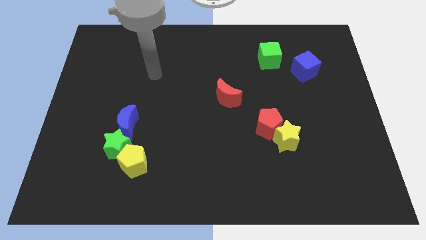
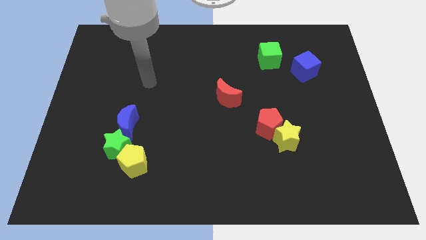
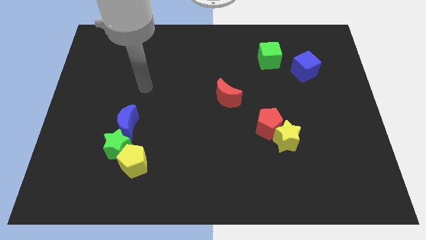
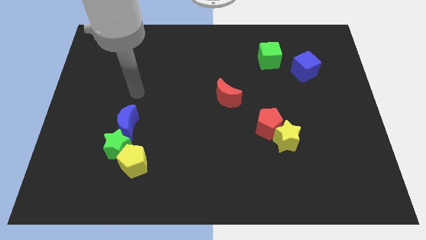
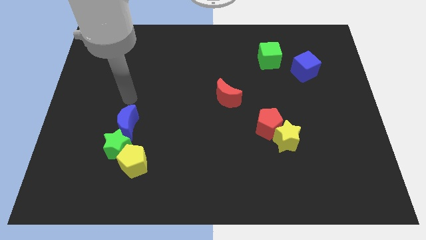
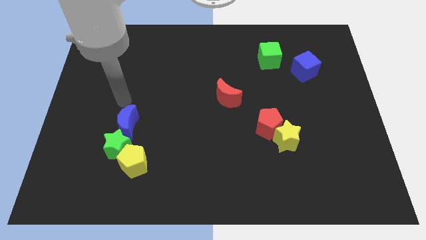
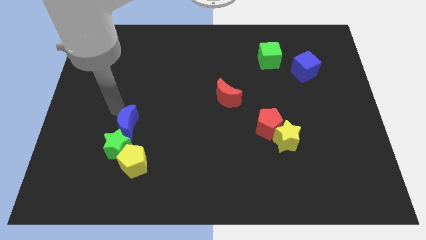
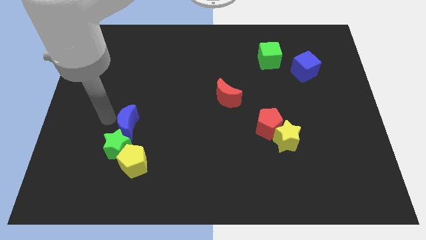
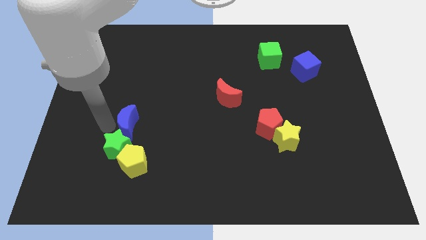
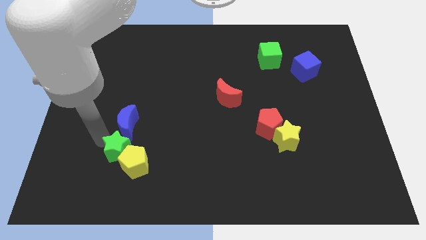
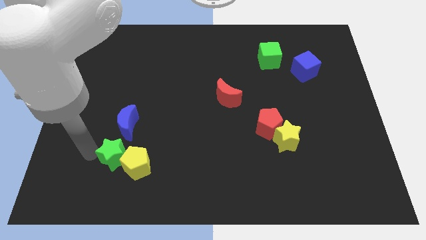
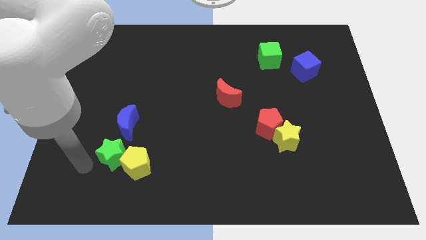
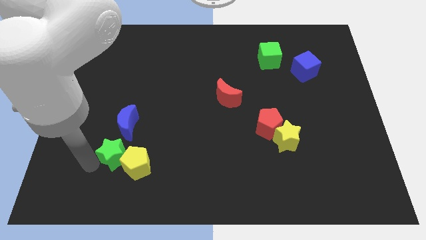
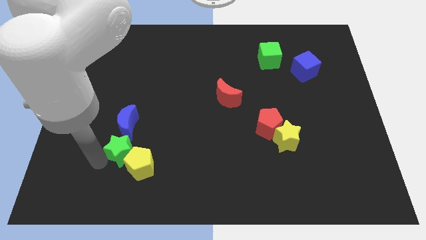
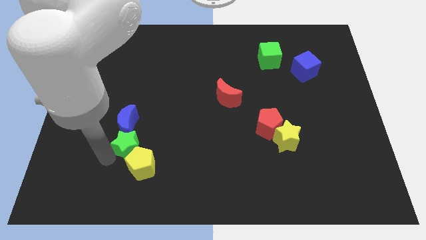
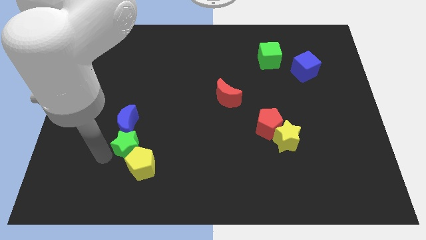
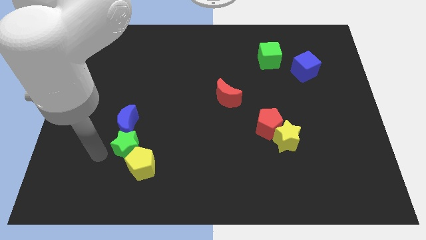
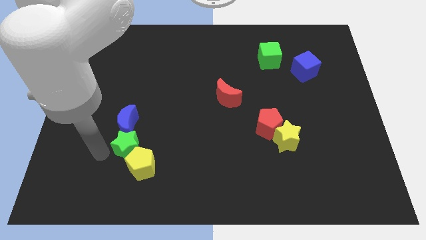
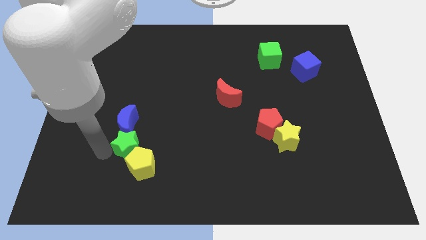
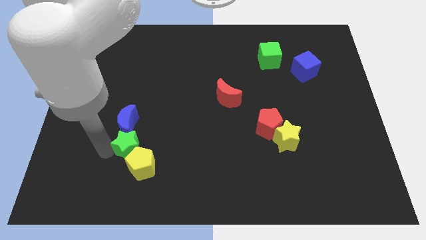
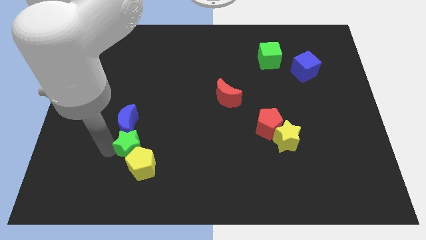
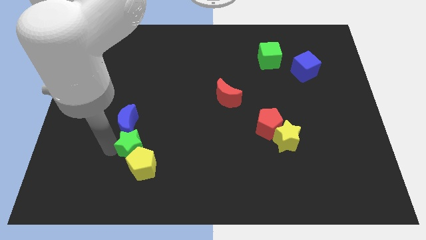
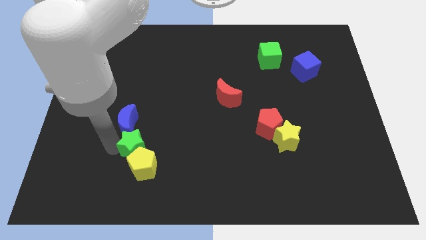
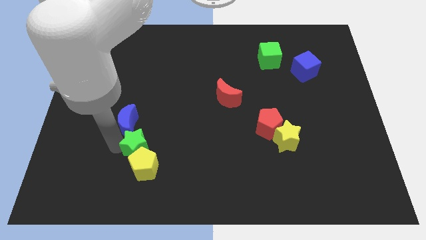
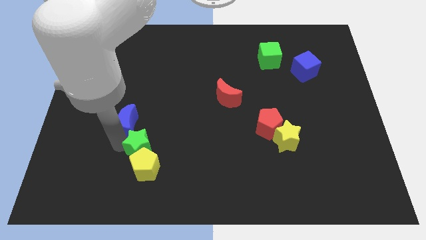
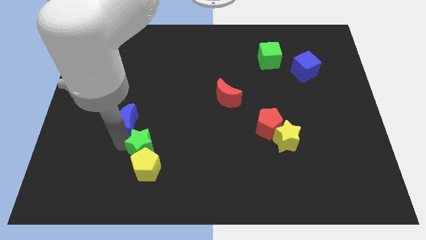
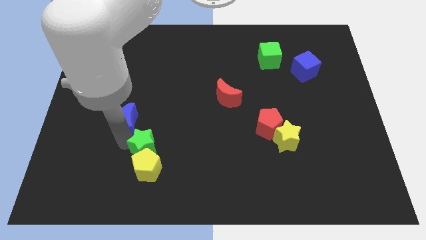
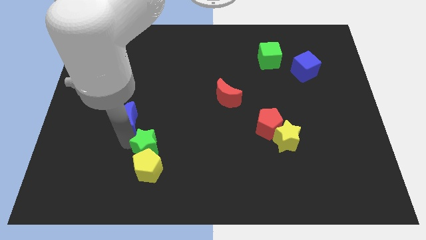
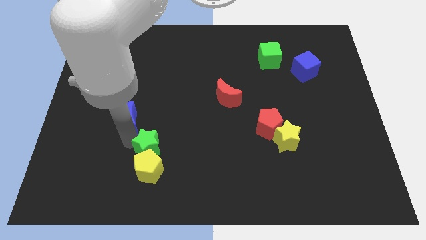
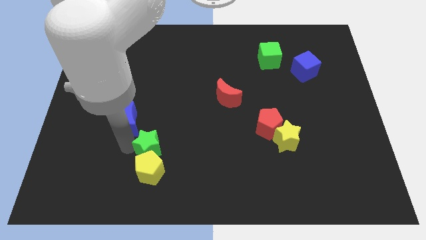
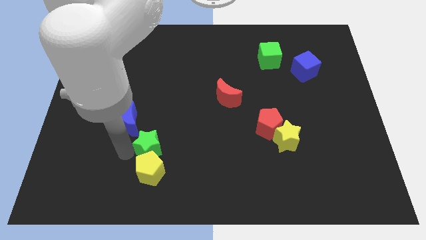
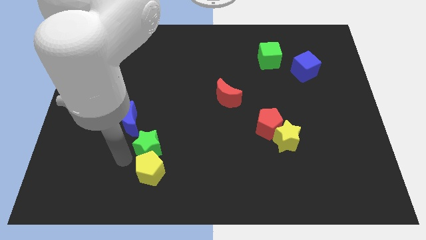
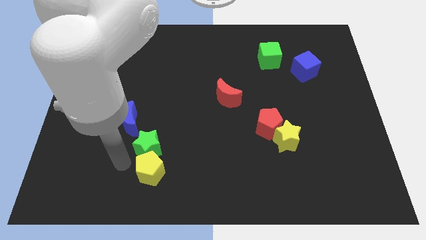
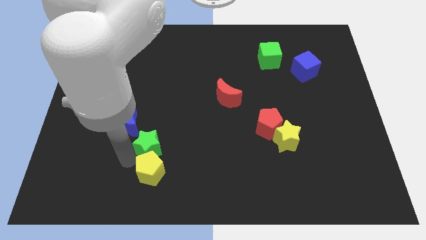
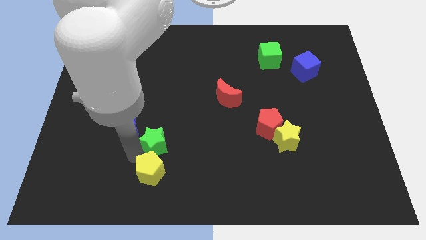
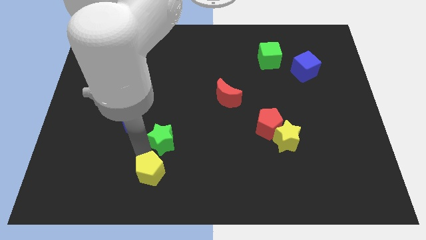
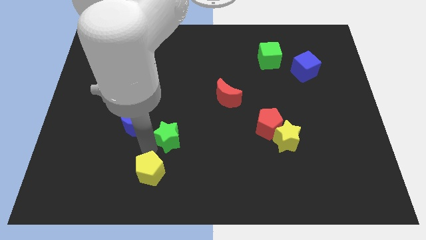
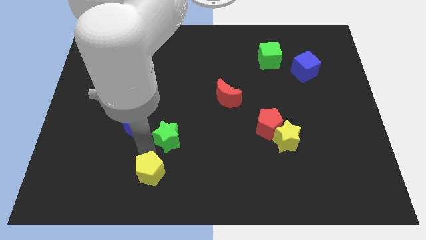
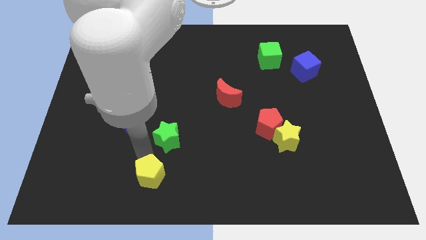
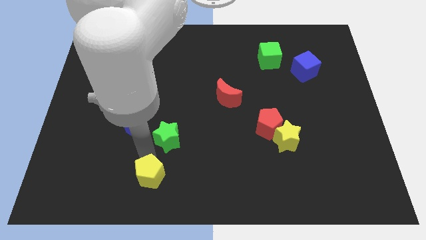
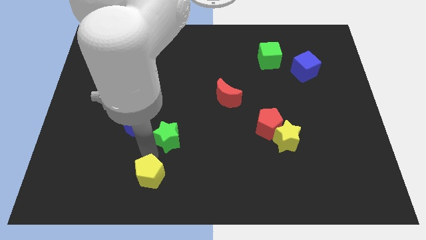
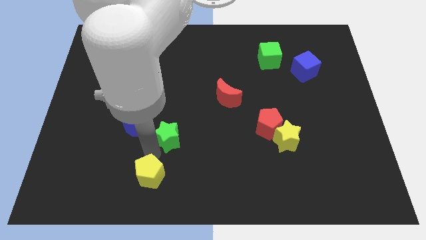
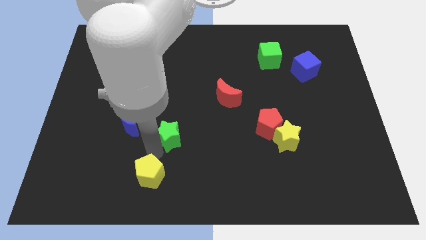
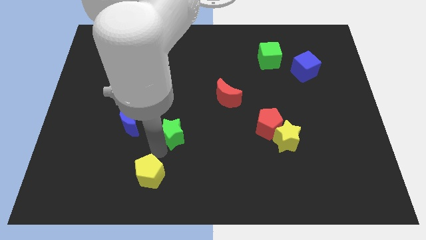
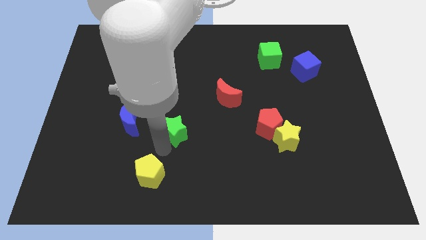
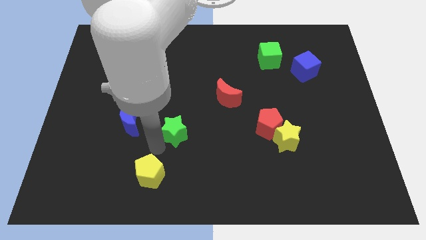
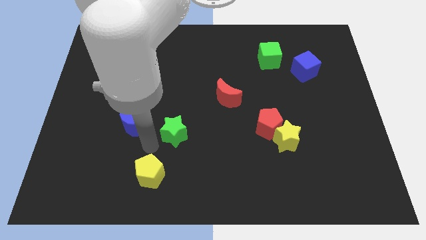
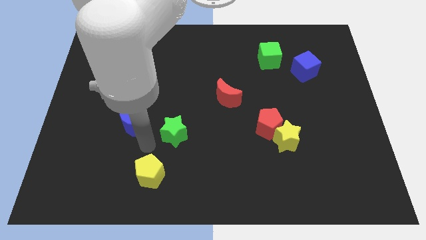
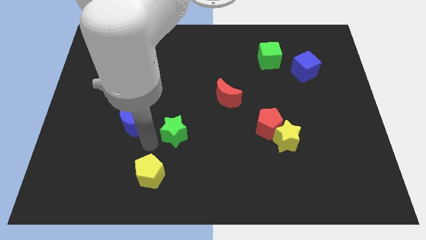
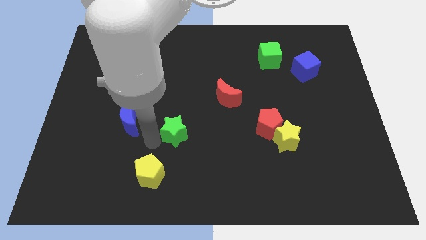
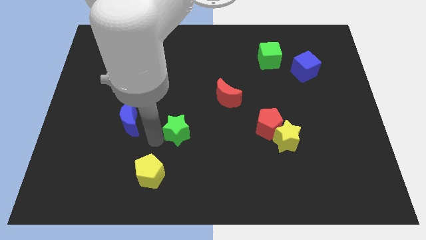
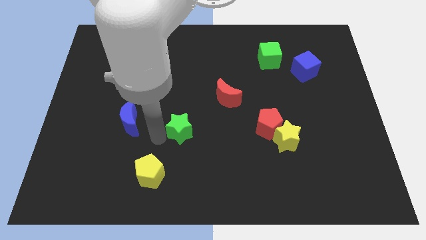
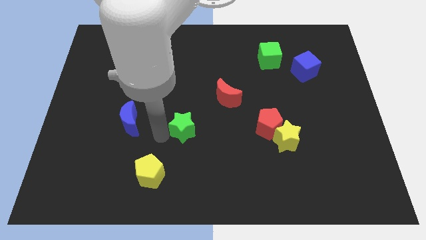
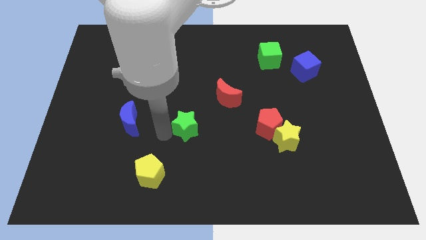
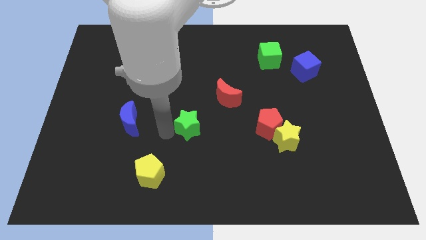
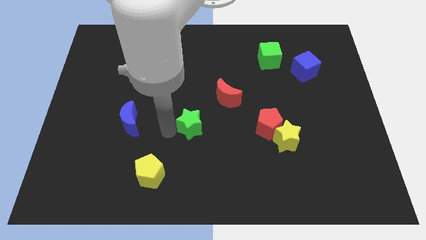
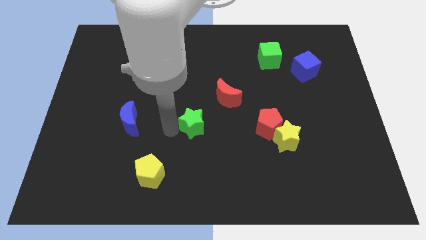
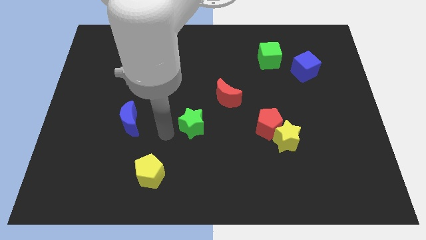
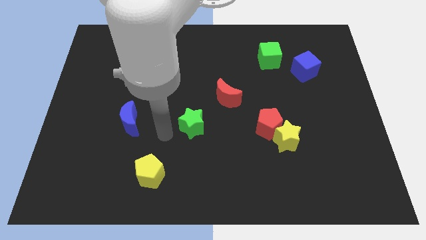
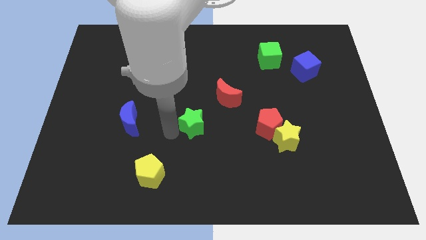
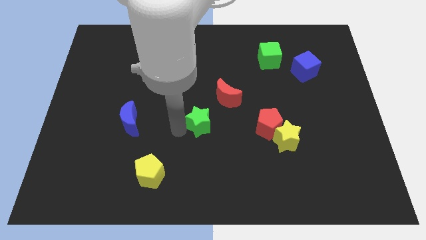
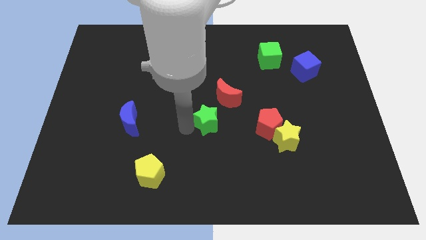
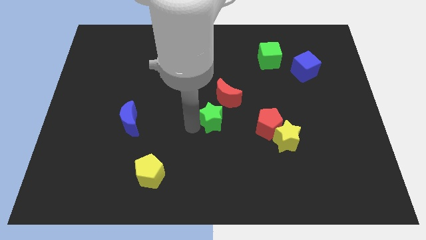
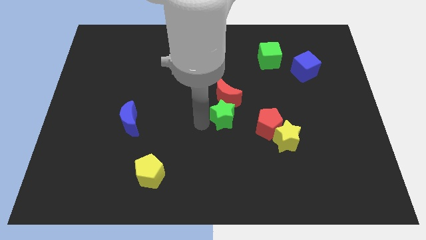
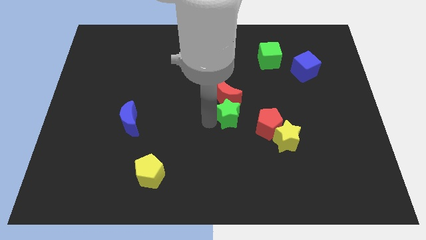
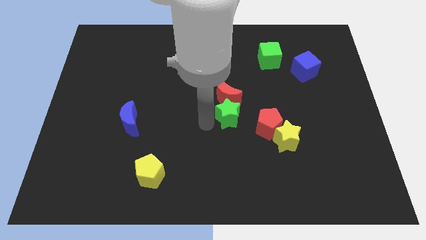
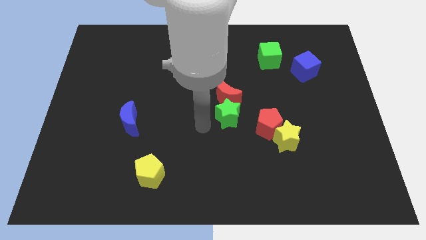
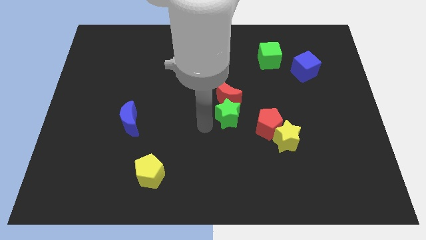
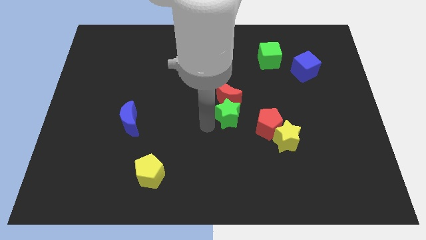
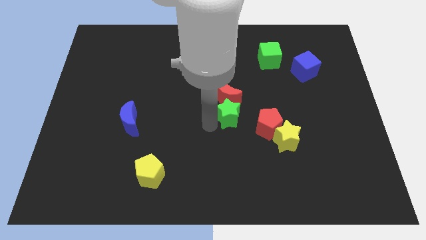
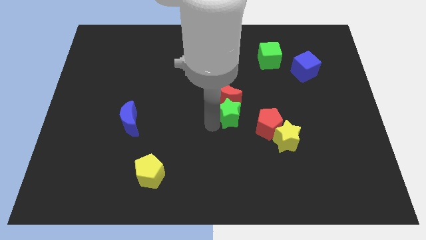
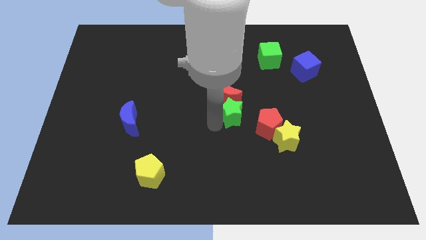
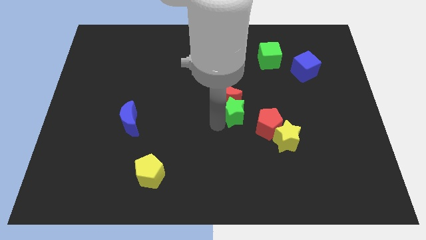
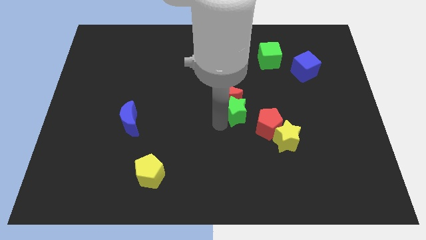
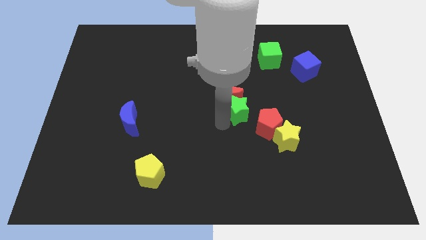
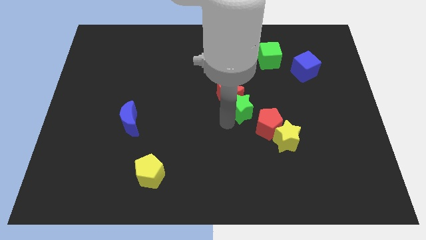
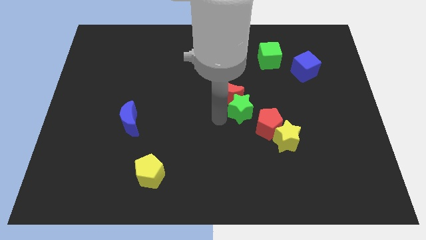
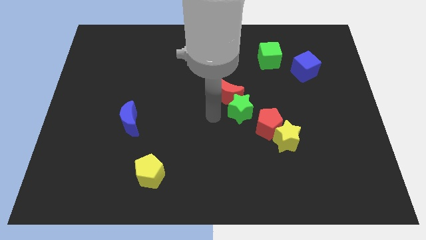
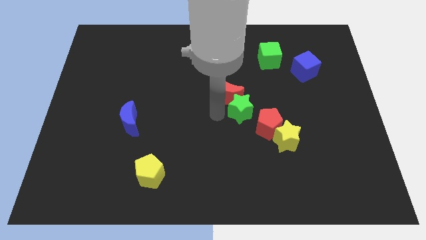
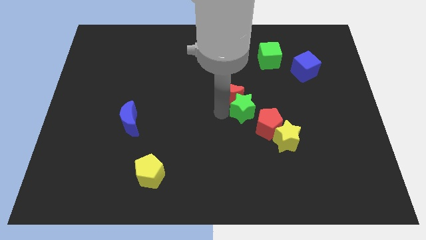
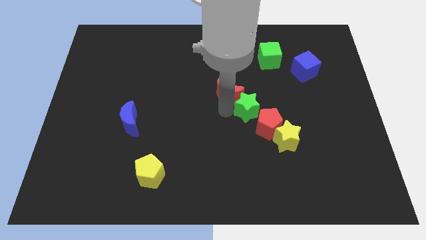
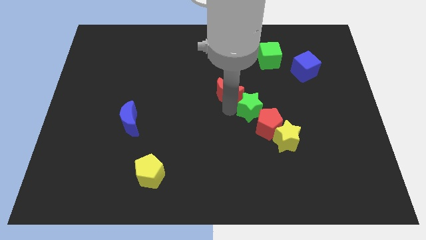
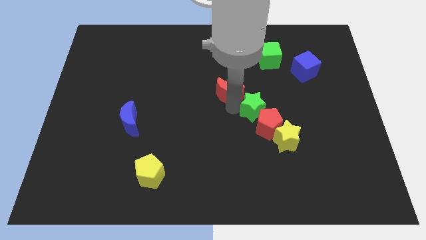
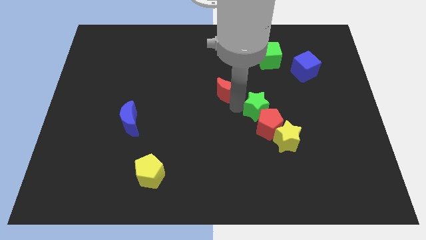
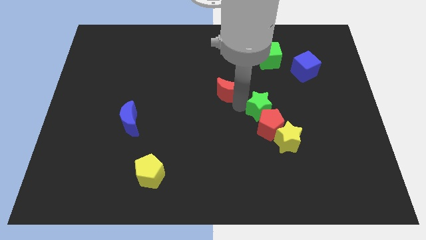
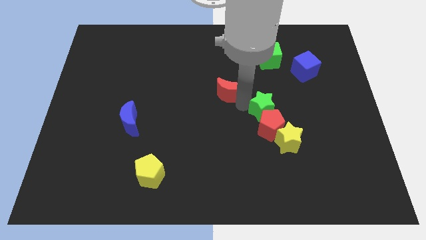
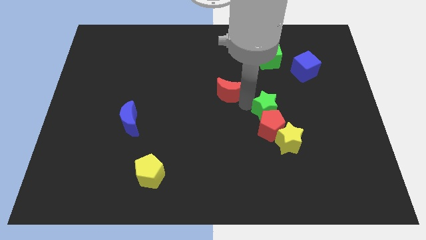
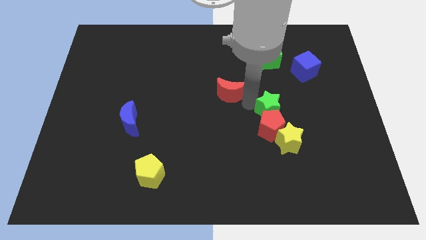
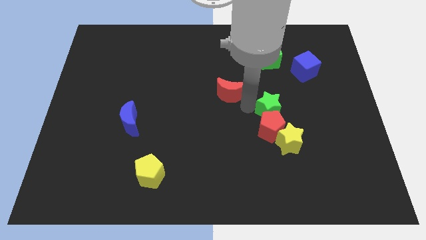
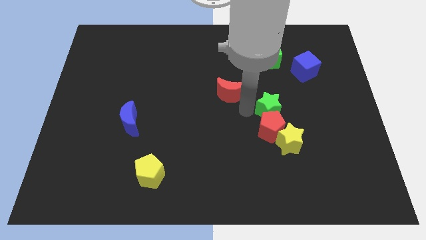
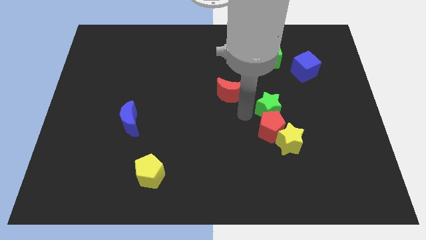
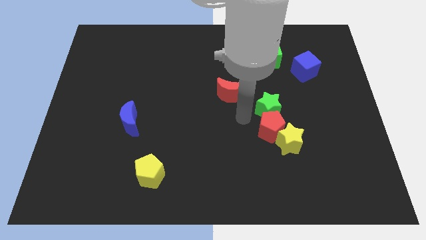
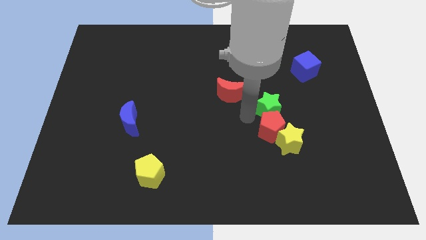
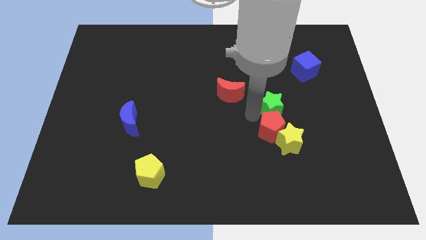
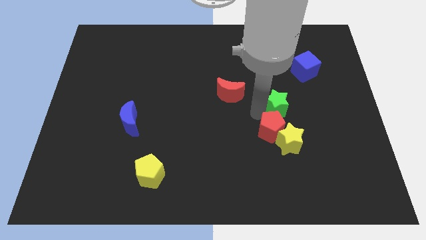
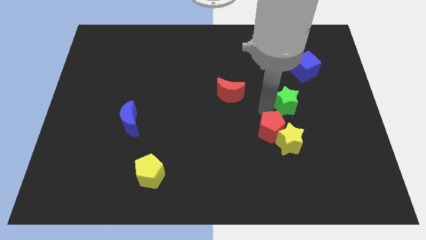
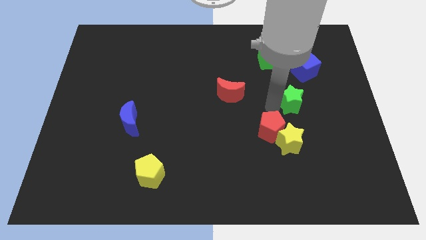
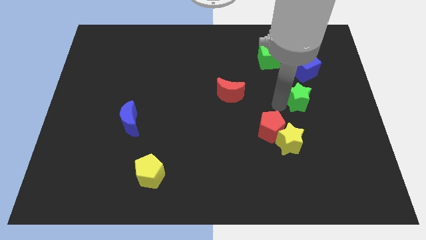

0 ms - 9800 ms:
slide the green star to the bottom of the blue cube
